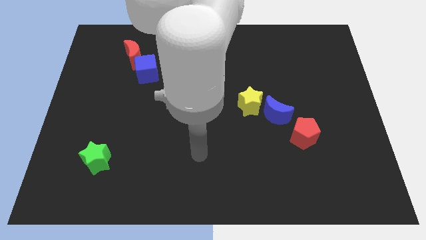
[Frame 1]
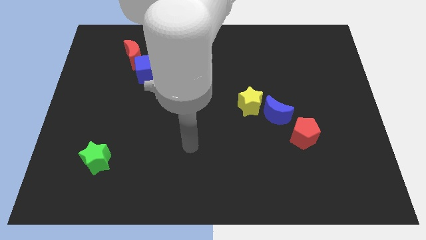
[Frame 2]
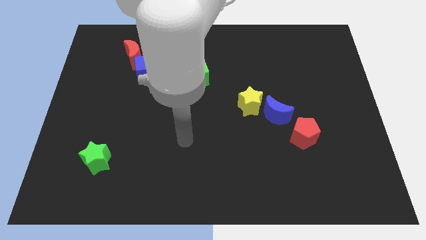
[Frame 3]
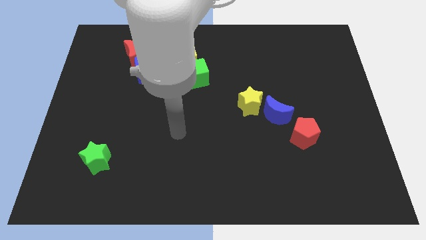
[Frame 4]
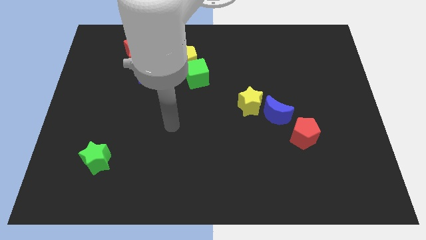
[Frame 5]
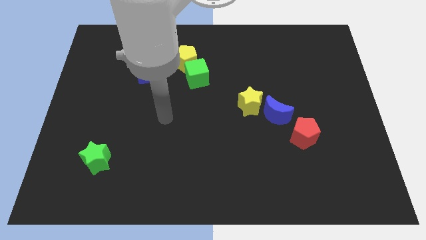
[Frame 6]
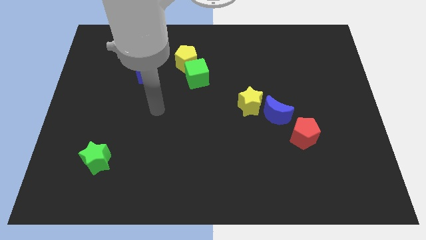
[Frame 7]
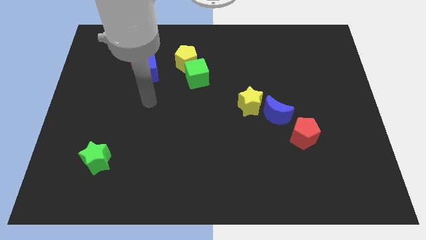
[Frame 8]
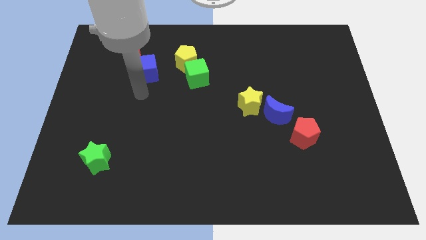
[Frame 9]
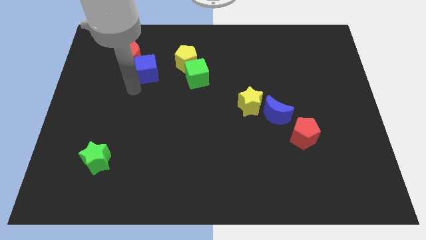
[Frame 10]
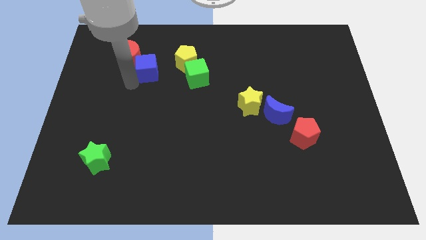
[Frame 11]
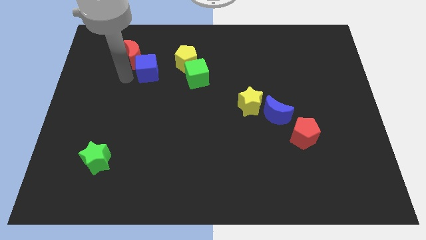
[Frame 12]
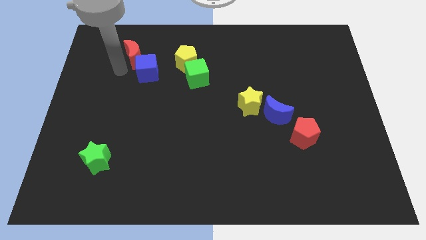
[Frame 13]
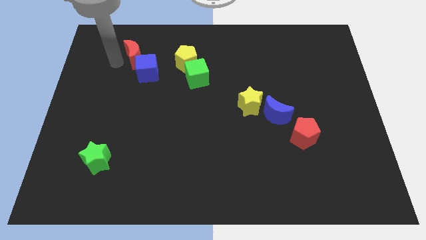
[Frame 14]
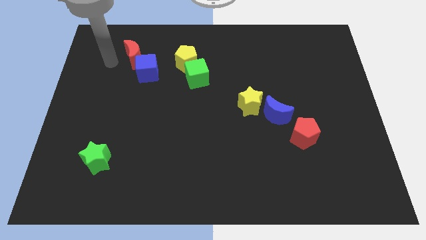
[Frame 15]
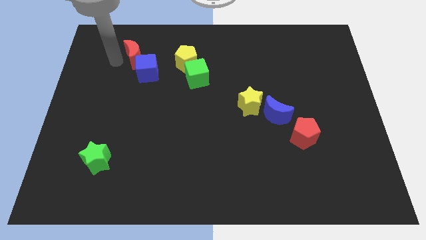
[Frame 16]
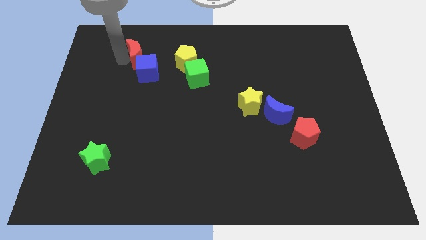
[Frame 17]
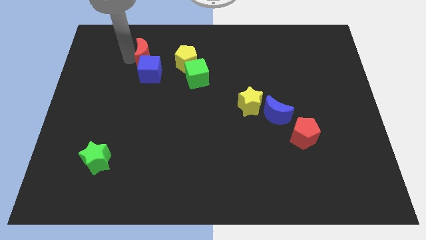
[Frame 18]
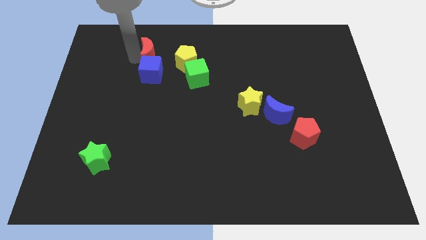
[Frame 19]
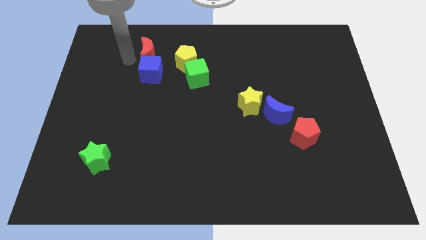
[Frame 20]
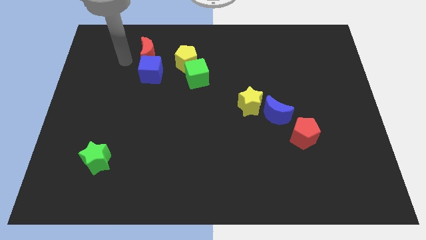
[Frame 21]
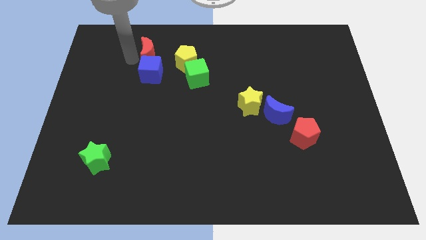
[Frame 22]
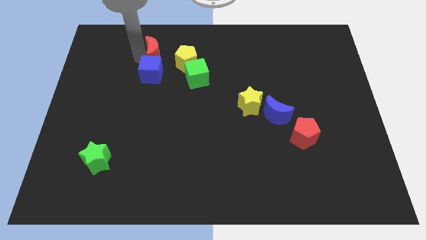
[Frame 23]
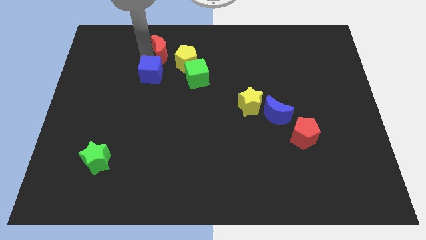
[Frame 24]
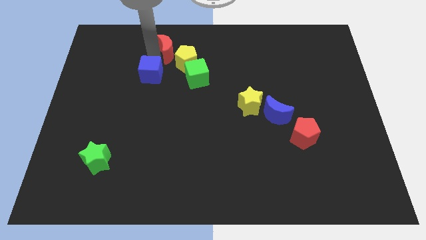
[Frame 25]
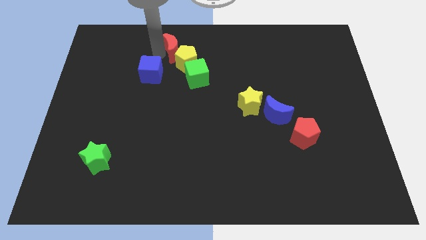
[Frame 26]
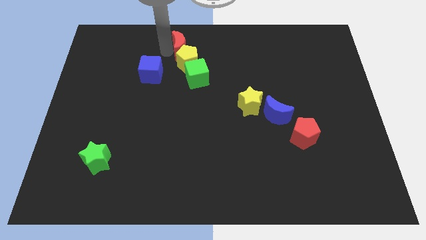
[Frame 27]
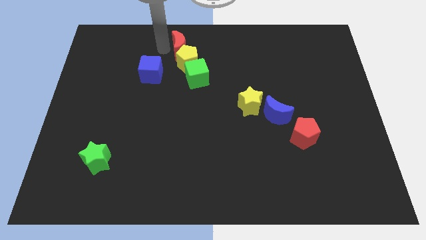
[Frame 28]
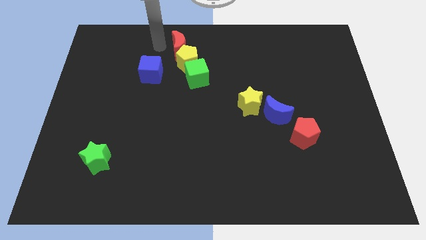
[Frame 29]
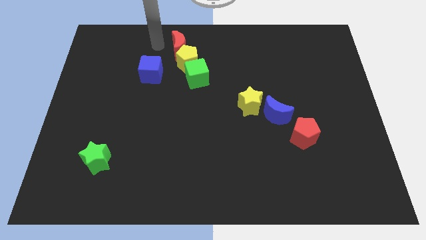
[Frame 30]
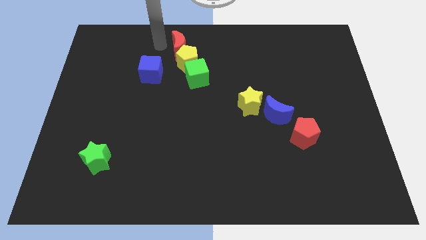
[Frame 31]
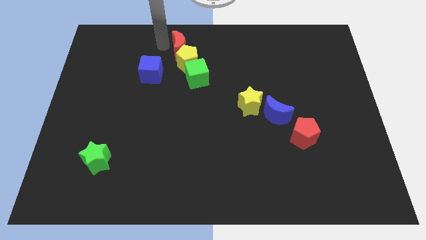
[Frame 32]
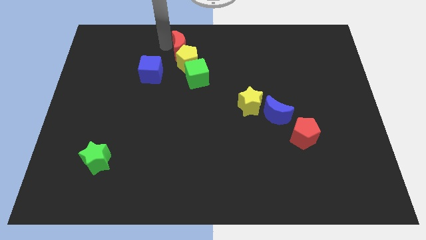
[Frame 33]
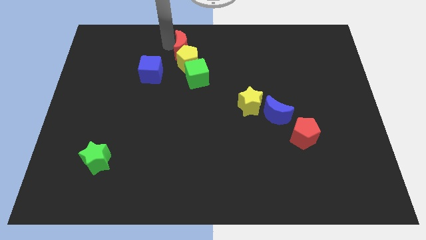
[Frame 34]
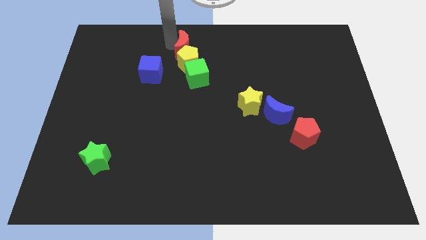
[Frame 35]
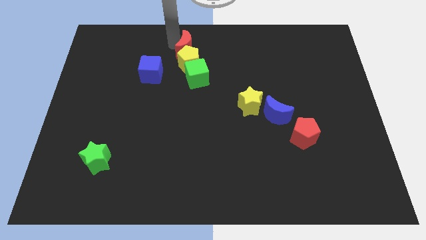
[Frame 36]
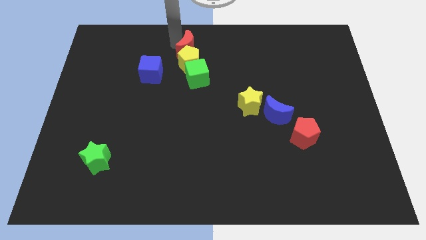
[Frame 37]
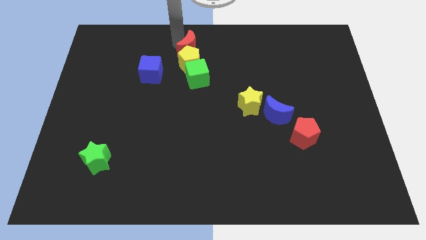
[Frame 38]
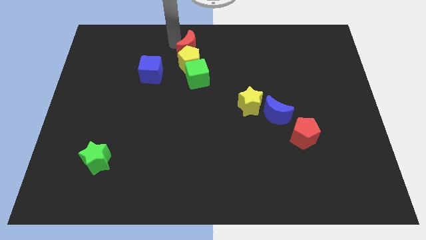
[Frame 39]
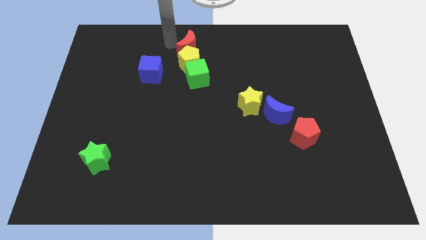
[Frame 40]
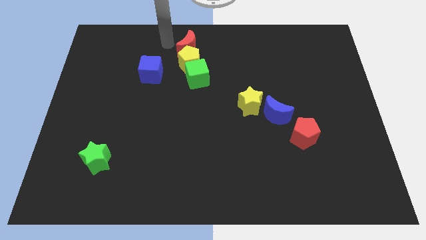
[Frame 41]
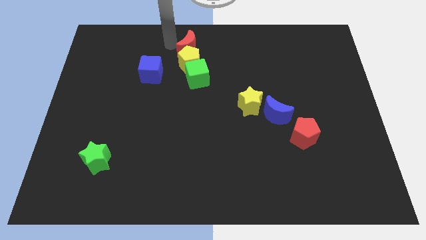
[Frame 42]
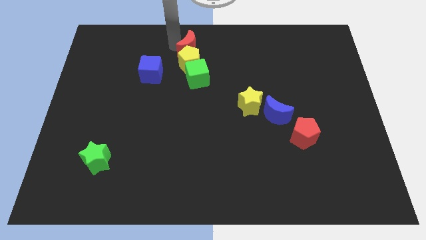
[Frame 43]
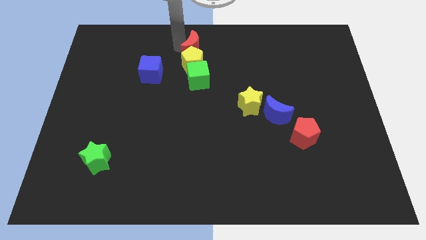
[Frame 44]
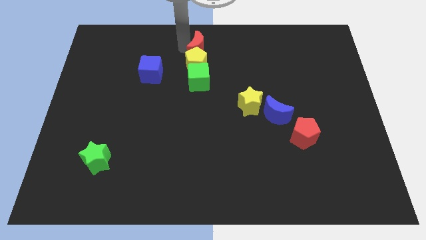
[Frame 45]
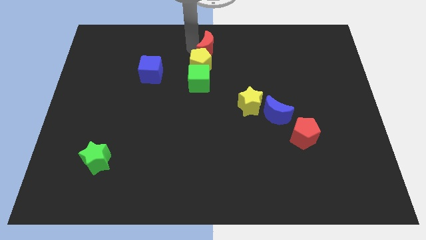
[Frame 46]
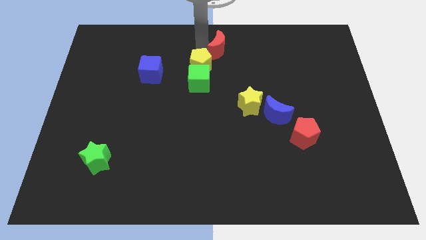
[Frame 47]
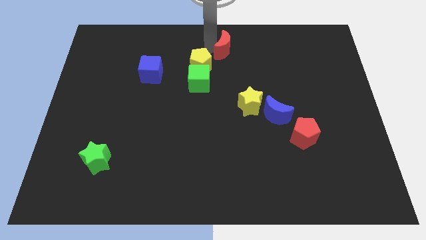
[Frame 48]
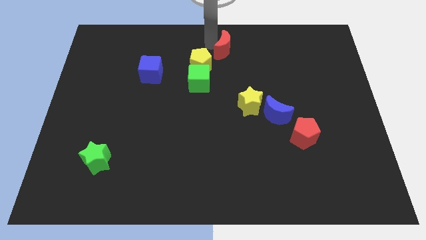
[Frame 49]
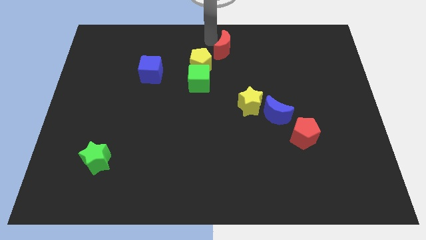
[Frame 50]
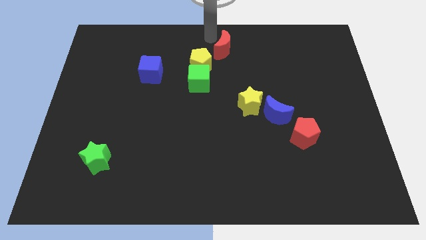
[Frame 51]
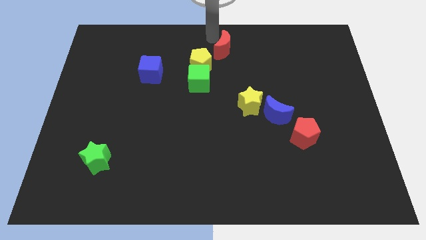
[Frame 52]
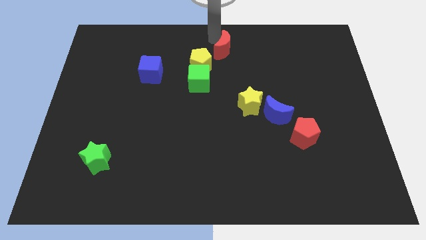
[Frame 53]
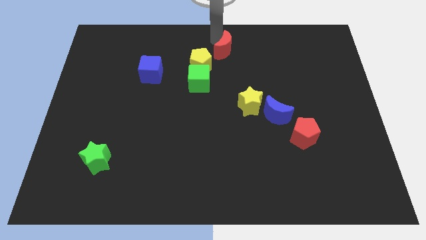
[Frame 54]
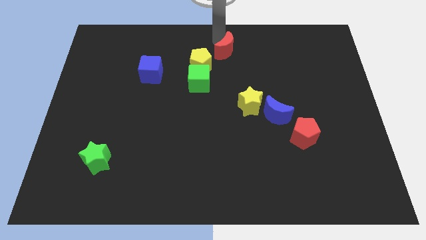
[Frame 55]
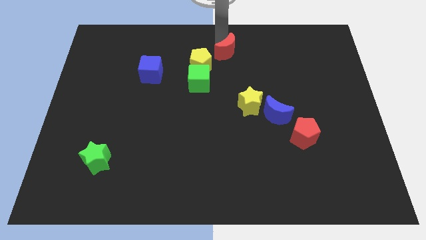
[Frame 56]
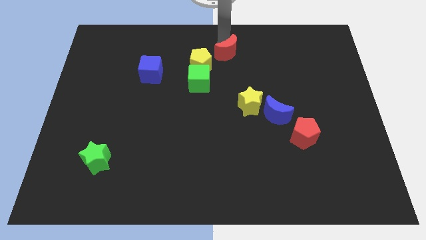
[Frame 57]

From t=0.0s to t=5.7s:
move the red moon to the right side of the yellow pentagon
